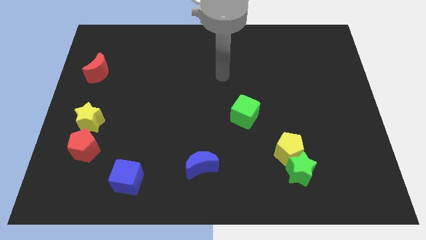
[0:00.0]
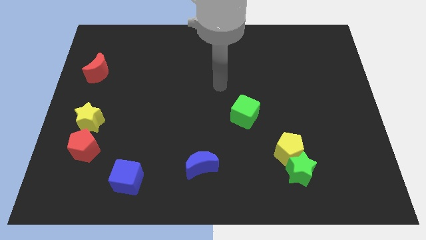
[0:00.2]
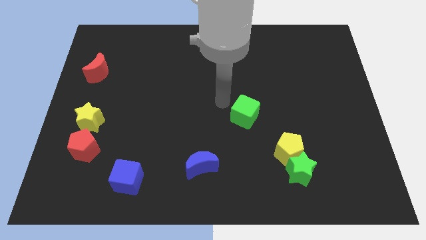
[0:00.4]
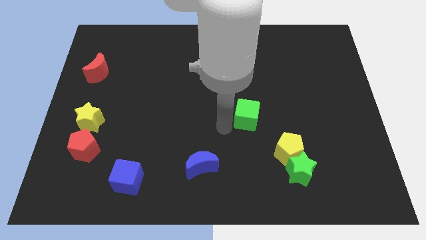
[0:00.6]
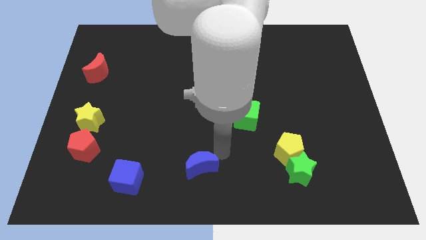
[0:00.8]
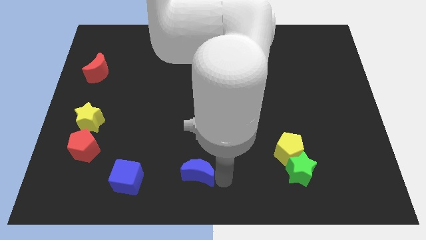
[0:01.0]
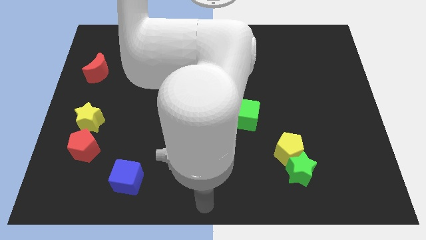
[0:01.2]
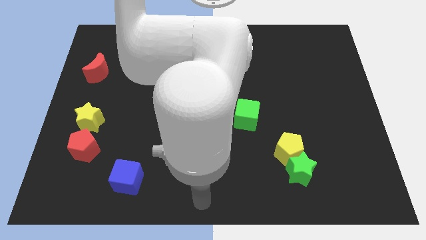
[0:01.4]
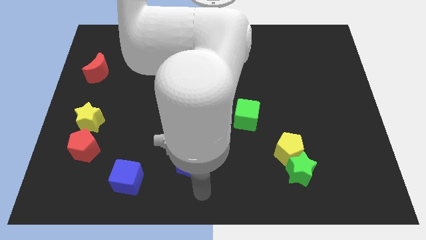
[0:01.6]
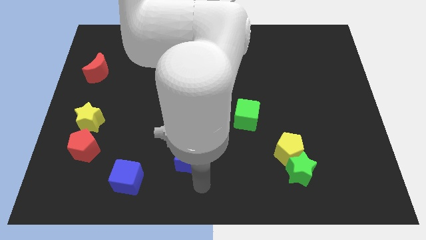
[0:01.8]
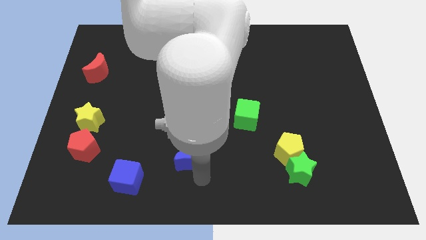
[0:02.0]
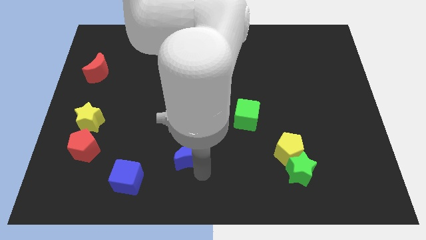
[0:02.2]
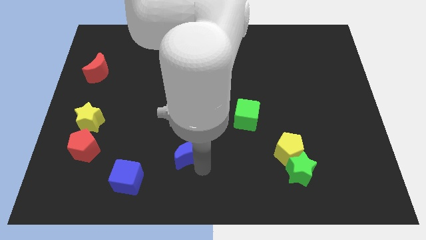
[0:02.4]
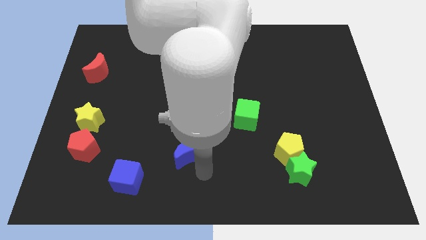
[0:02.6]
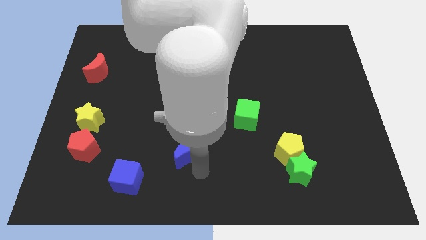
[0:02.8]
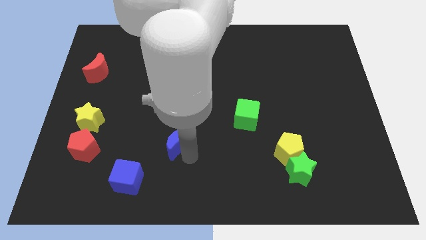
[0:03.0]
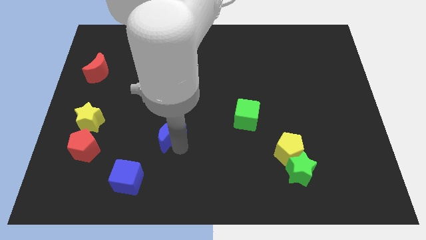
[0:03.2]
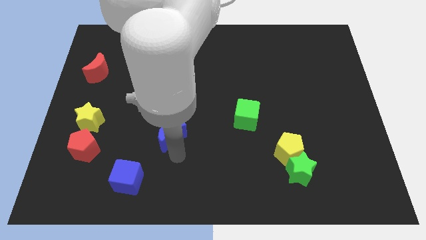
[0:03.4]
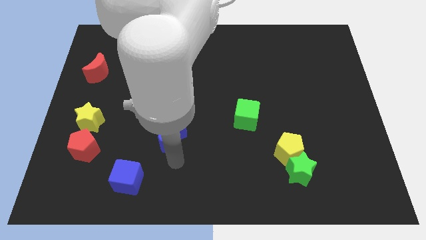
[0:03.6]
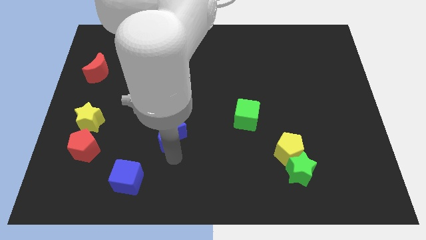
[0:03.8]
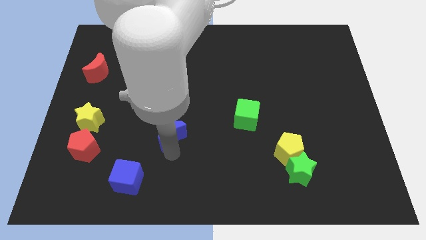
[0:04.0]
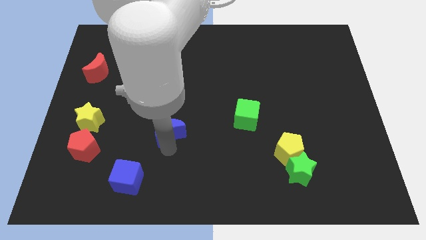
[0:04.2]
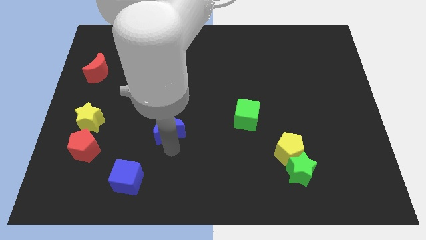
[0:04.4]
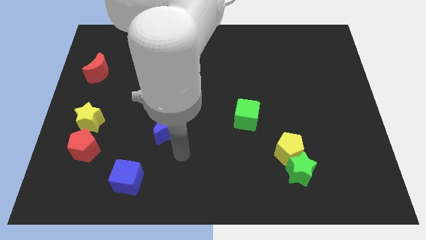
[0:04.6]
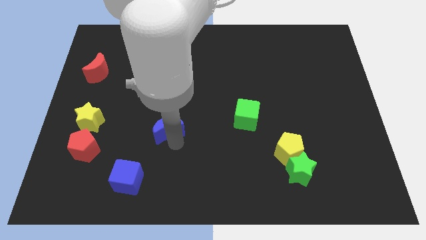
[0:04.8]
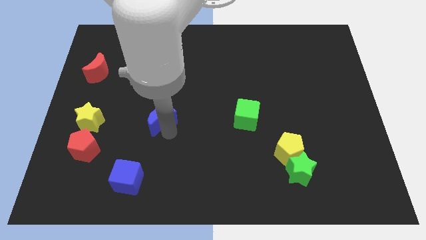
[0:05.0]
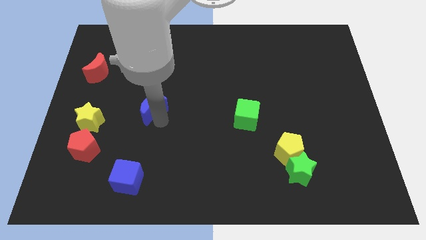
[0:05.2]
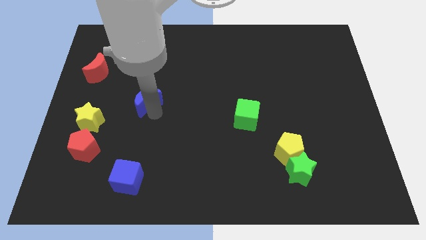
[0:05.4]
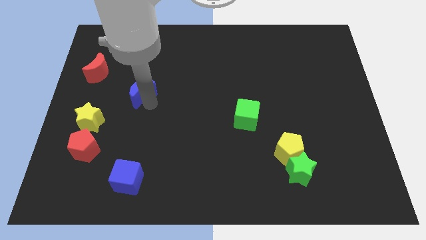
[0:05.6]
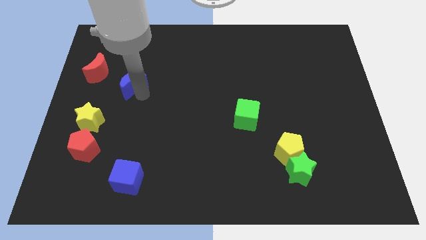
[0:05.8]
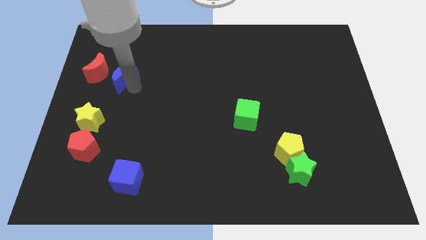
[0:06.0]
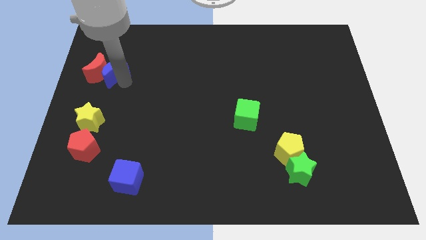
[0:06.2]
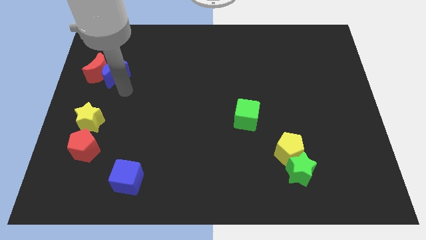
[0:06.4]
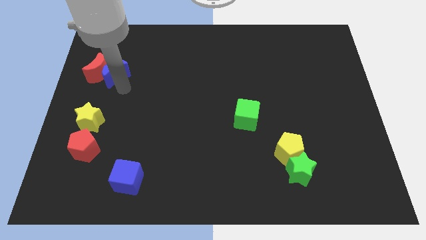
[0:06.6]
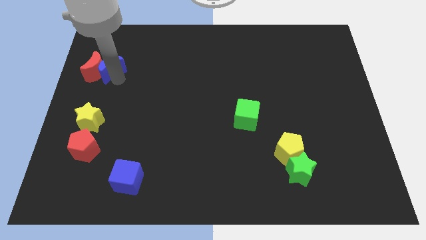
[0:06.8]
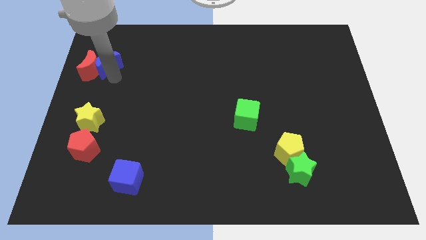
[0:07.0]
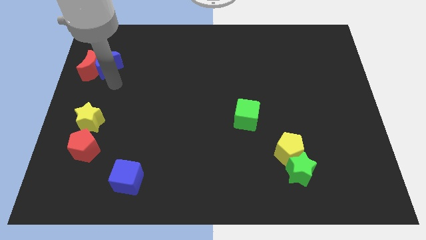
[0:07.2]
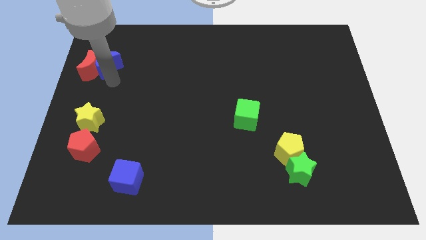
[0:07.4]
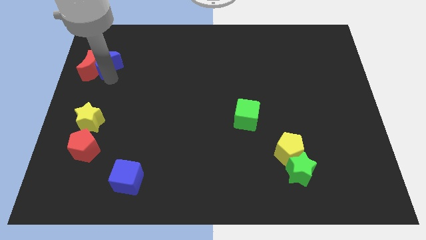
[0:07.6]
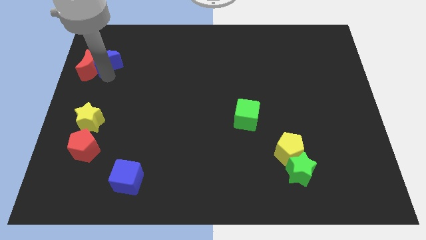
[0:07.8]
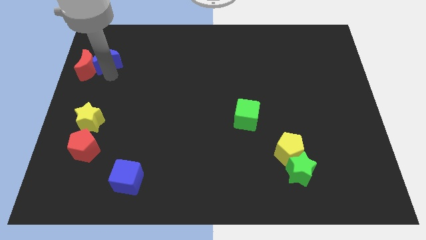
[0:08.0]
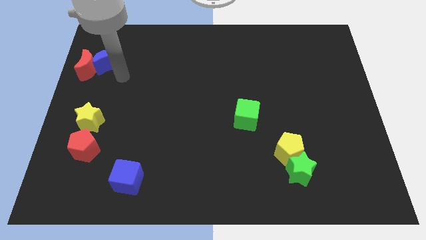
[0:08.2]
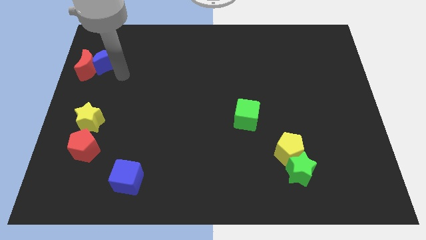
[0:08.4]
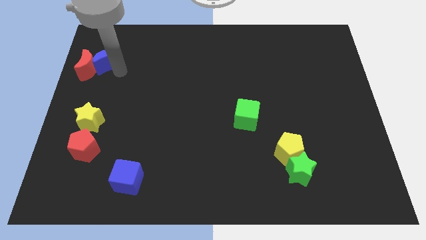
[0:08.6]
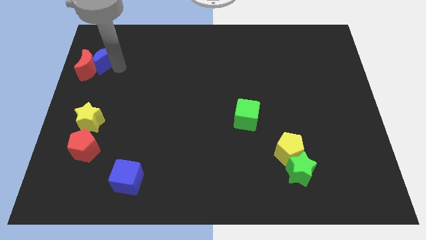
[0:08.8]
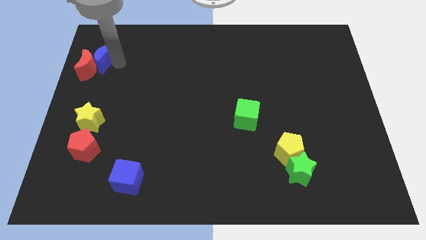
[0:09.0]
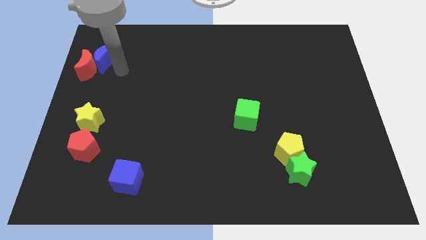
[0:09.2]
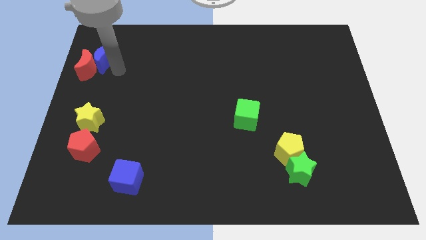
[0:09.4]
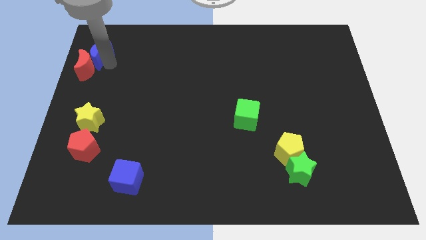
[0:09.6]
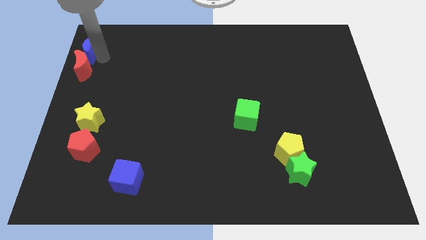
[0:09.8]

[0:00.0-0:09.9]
put the blue moon to the top left corner

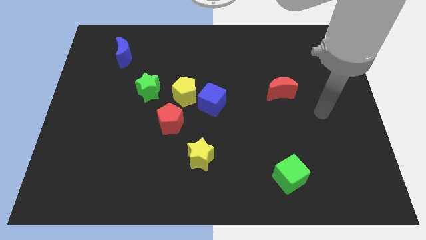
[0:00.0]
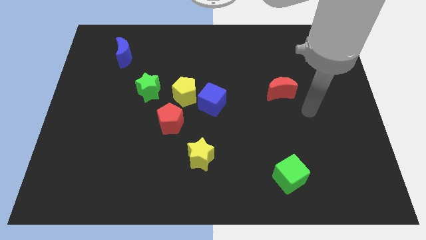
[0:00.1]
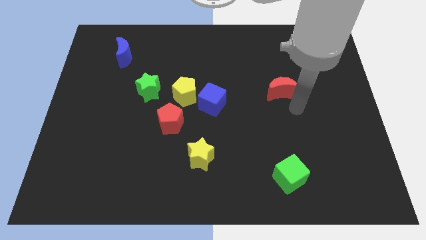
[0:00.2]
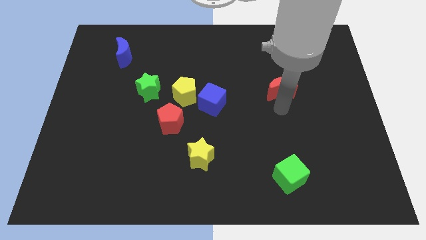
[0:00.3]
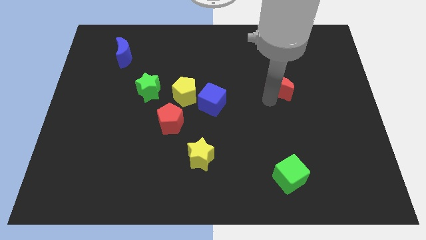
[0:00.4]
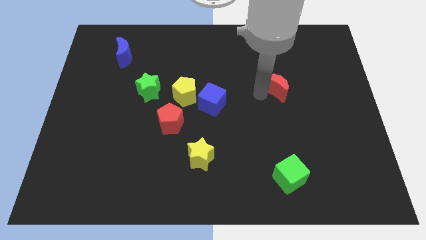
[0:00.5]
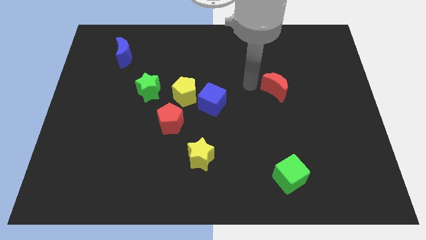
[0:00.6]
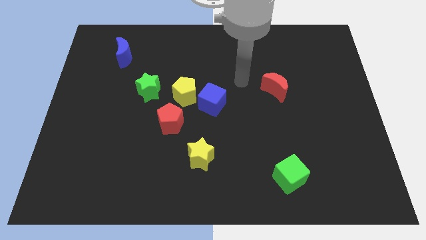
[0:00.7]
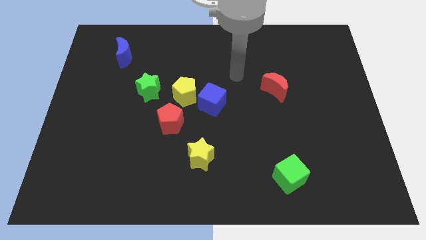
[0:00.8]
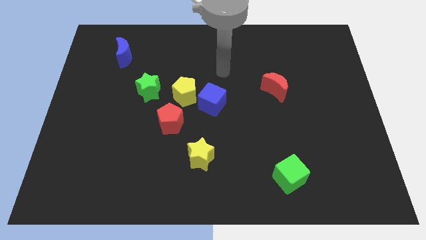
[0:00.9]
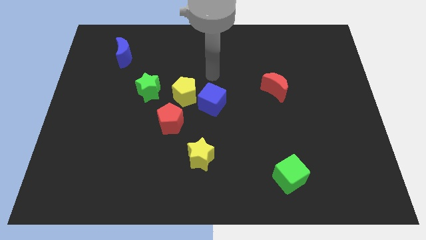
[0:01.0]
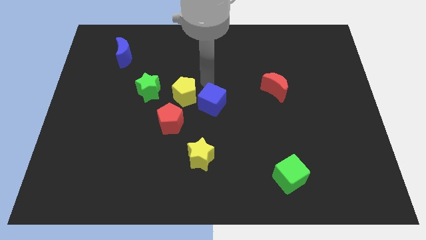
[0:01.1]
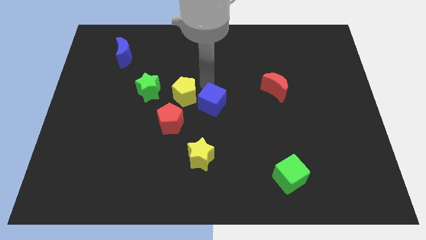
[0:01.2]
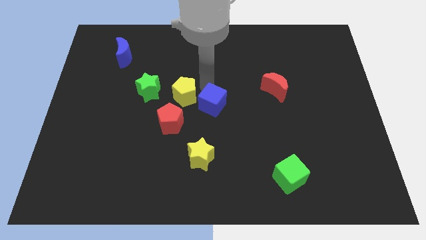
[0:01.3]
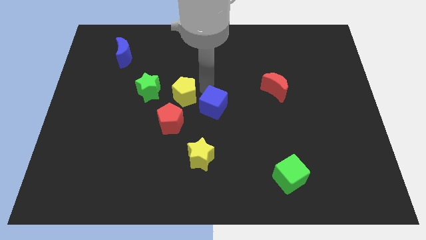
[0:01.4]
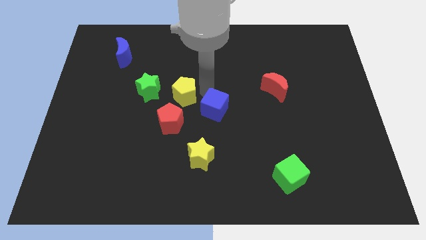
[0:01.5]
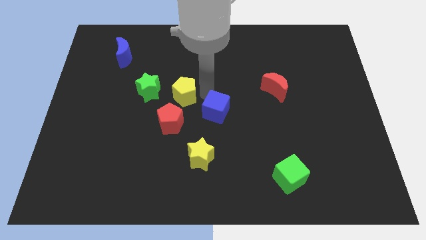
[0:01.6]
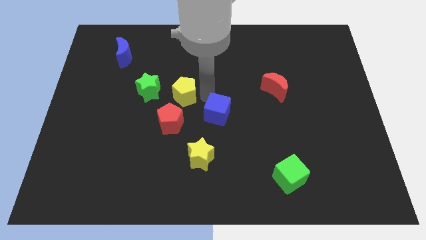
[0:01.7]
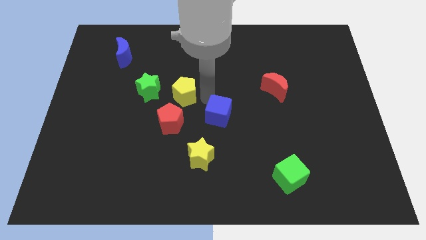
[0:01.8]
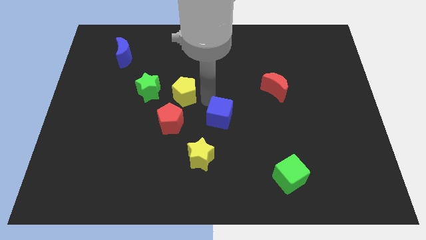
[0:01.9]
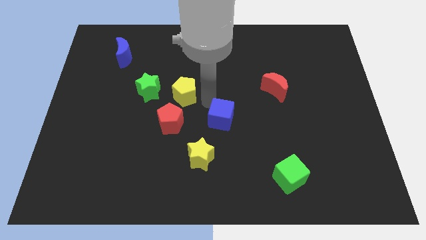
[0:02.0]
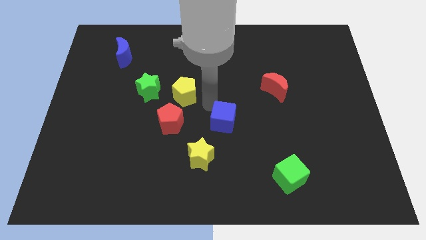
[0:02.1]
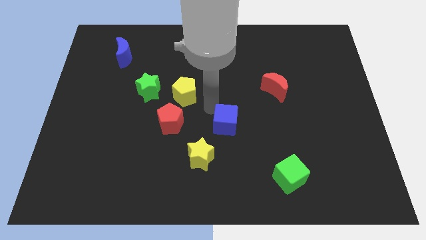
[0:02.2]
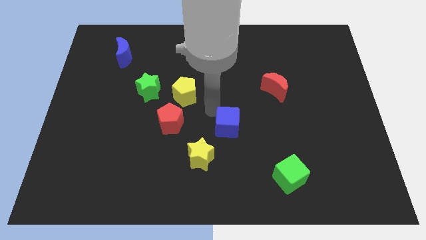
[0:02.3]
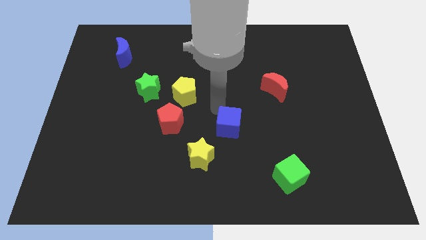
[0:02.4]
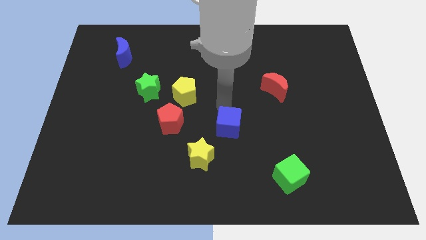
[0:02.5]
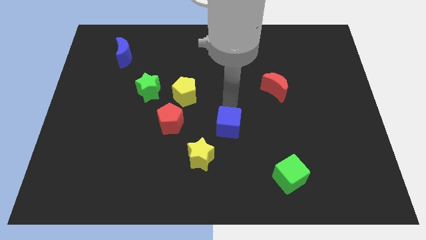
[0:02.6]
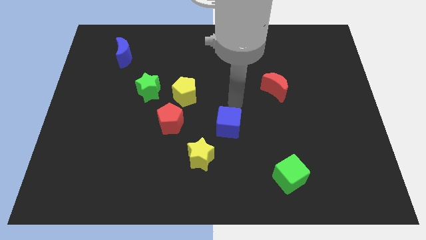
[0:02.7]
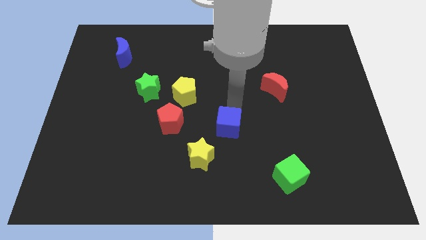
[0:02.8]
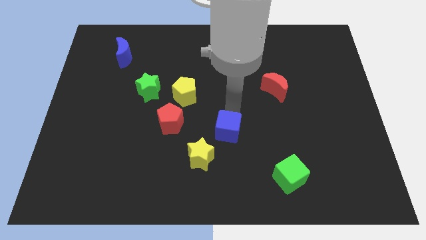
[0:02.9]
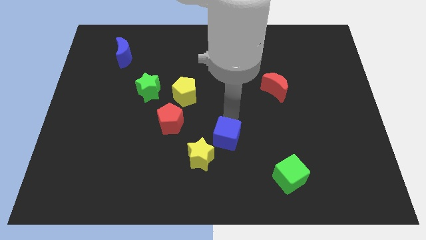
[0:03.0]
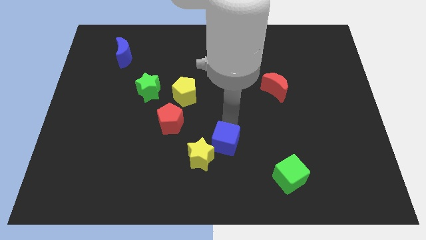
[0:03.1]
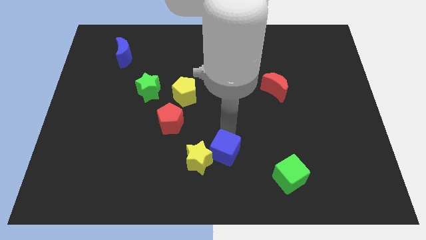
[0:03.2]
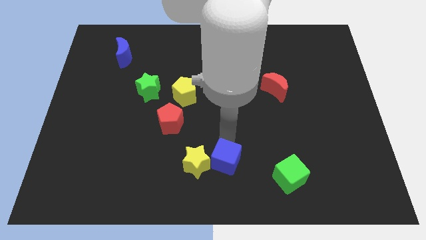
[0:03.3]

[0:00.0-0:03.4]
slide the blue cube to the bottom side
